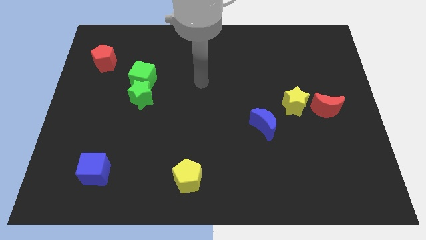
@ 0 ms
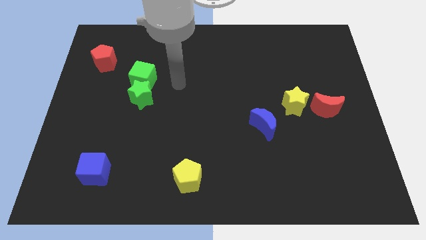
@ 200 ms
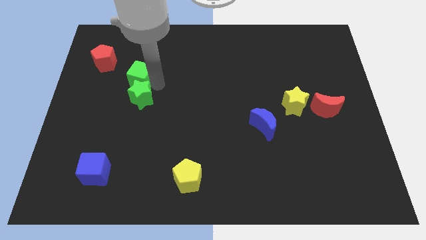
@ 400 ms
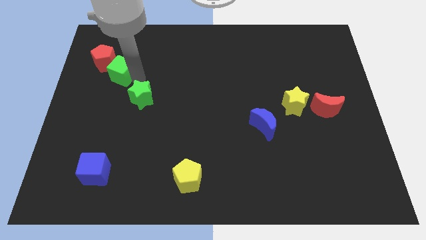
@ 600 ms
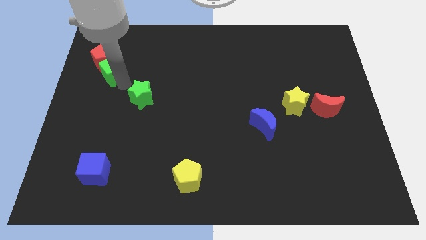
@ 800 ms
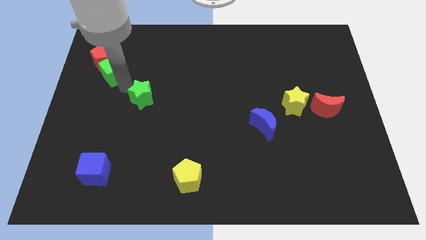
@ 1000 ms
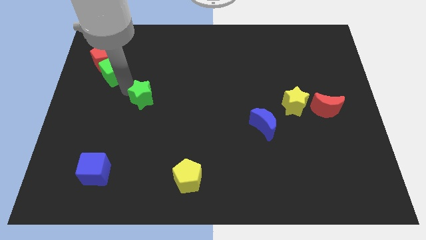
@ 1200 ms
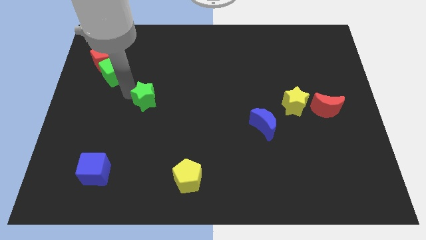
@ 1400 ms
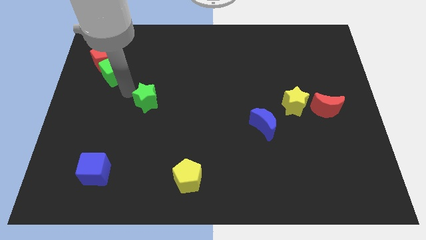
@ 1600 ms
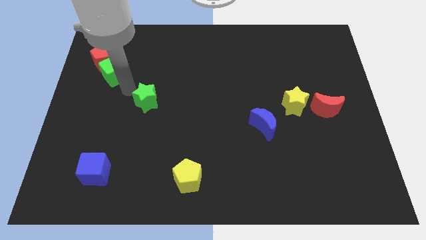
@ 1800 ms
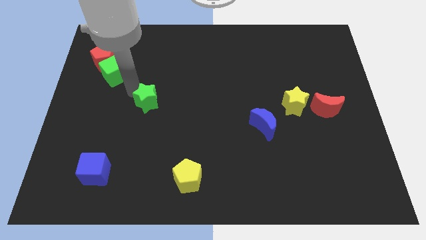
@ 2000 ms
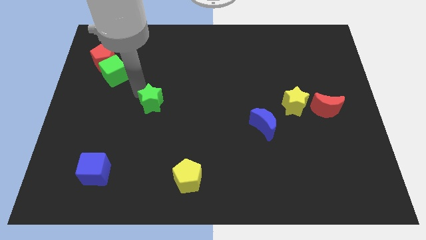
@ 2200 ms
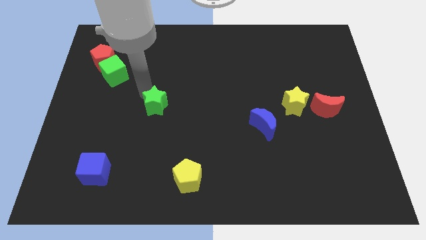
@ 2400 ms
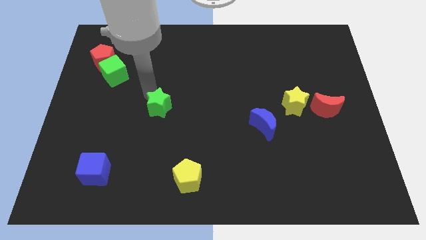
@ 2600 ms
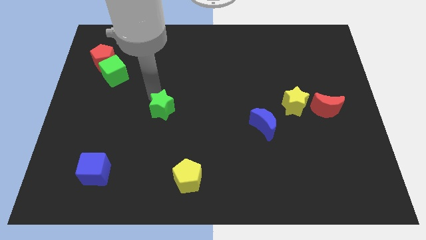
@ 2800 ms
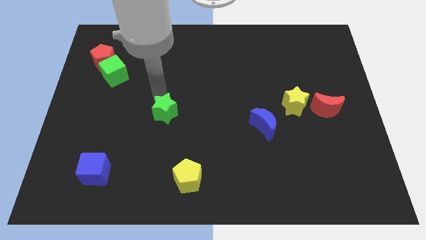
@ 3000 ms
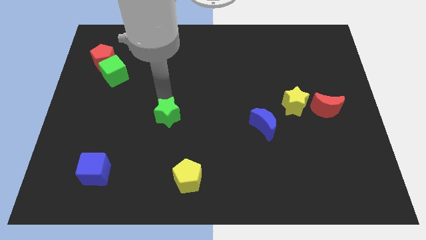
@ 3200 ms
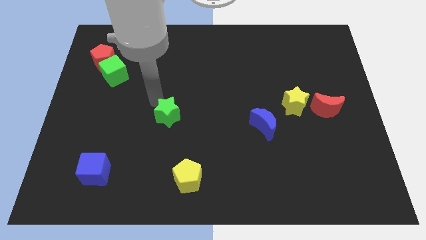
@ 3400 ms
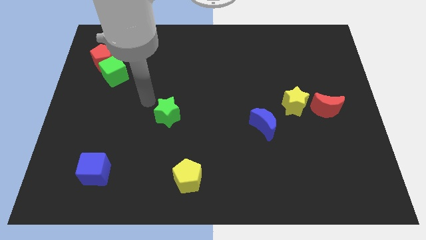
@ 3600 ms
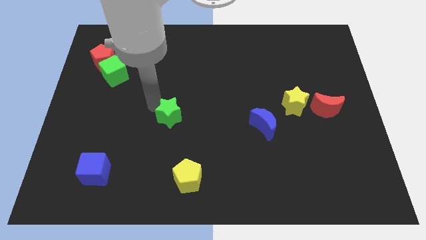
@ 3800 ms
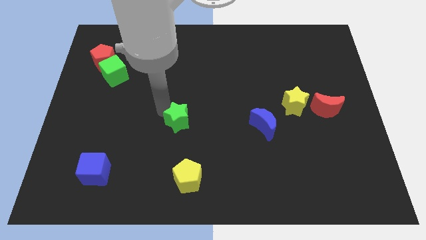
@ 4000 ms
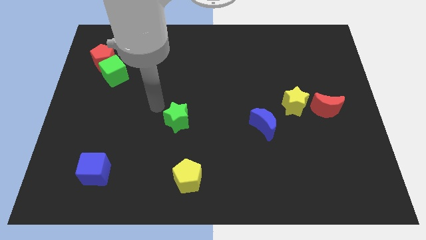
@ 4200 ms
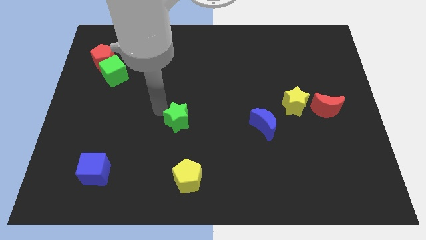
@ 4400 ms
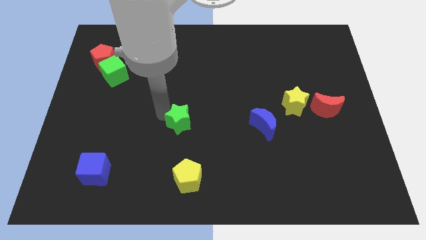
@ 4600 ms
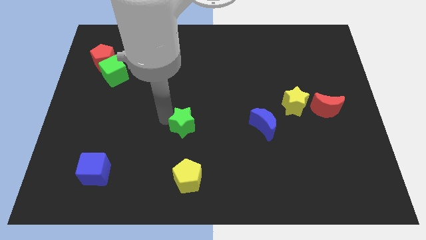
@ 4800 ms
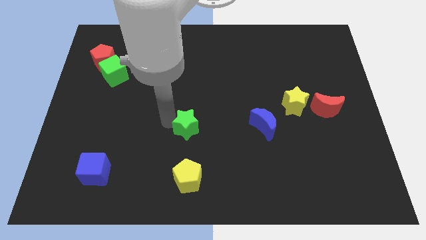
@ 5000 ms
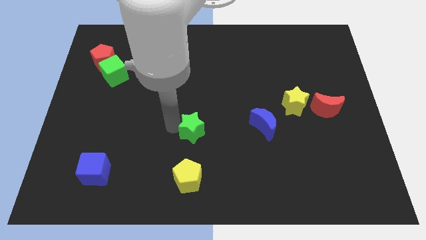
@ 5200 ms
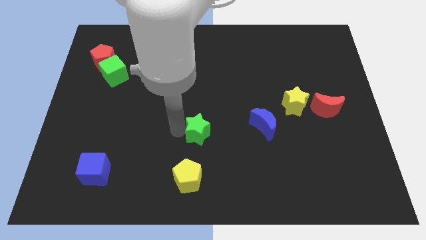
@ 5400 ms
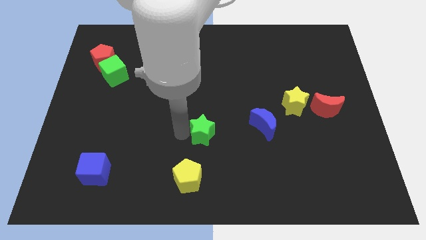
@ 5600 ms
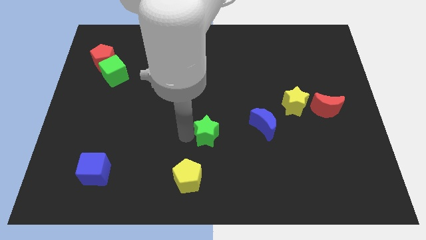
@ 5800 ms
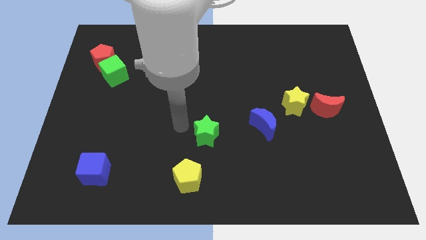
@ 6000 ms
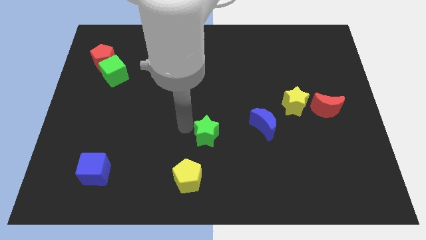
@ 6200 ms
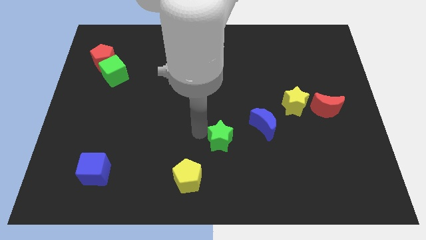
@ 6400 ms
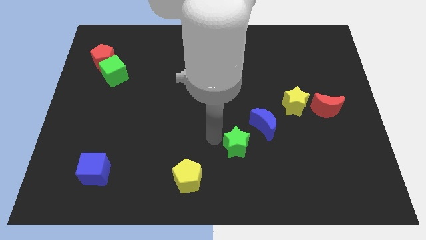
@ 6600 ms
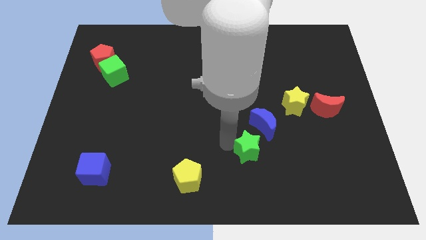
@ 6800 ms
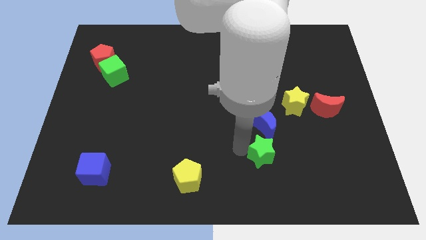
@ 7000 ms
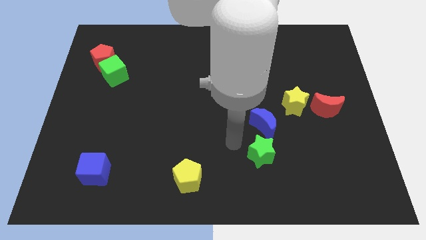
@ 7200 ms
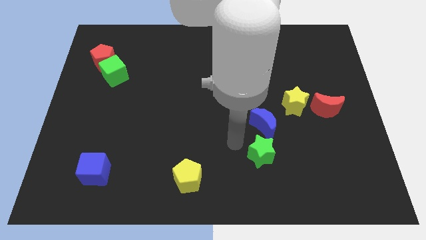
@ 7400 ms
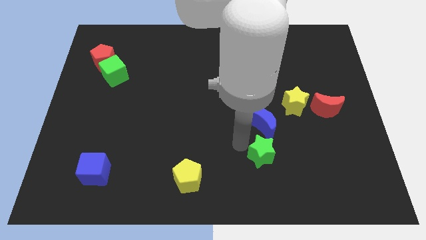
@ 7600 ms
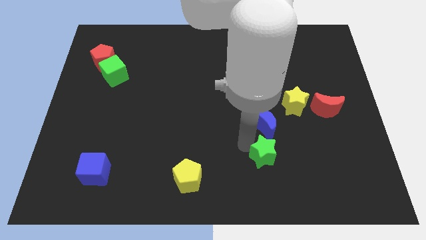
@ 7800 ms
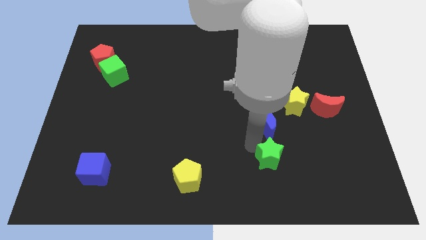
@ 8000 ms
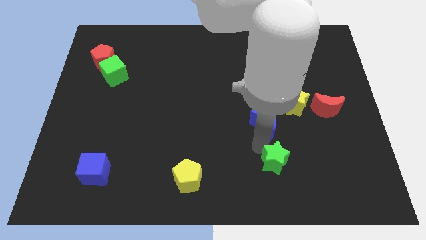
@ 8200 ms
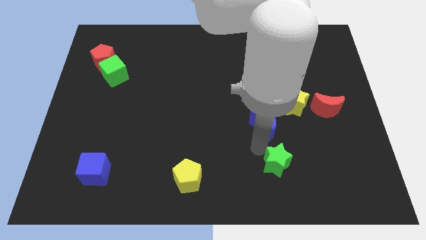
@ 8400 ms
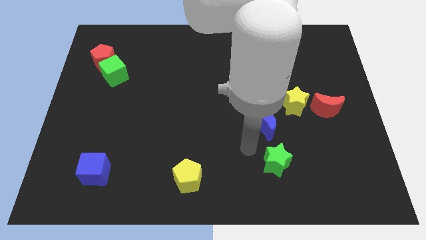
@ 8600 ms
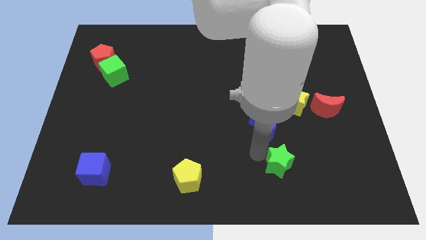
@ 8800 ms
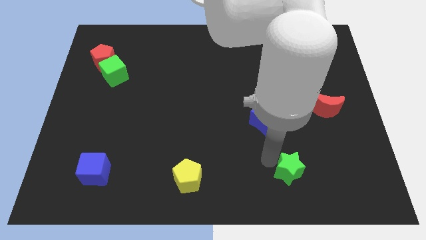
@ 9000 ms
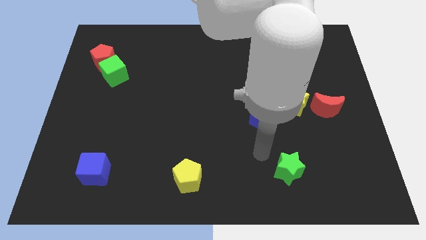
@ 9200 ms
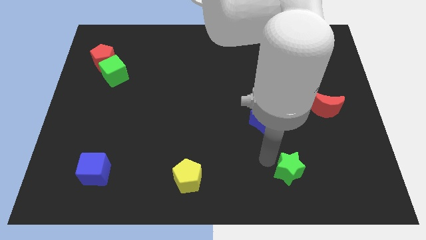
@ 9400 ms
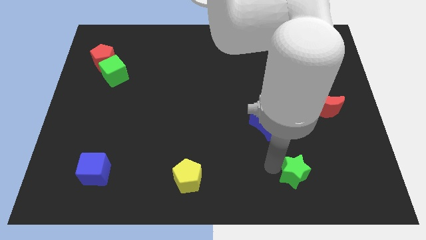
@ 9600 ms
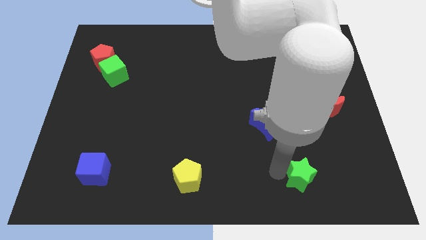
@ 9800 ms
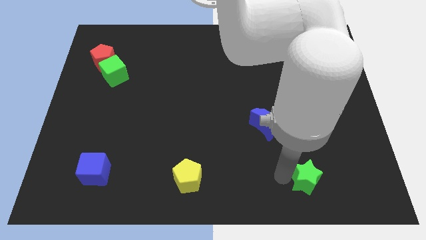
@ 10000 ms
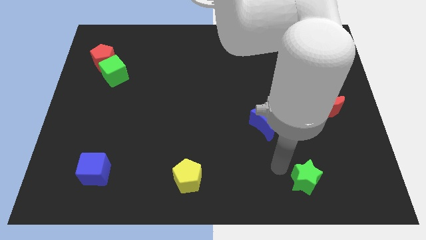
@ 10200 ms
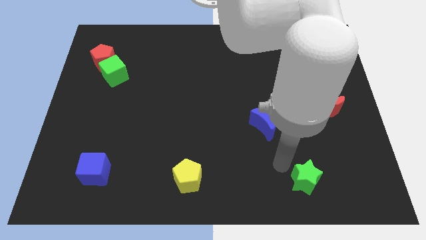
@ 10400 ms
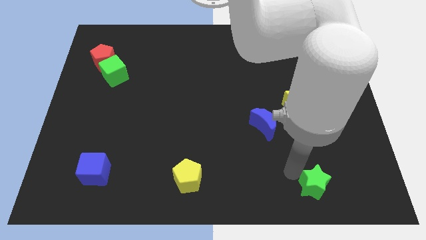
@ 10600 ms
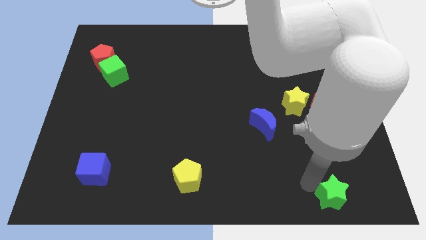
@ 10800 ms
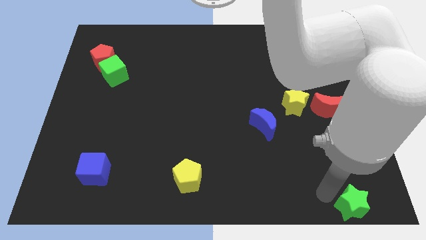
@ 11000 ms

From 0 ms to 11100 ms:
slide the green star to the bottom right of the board

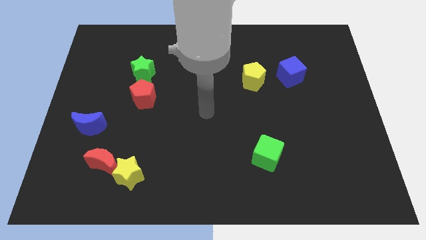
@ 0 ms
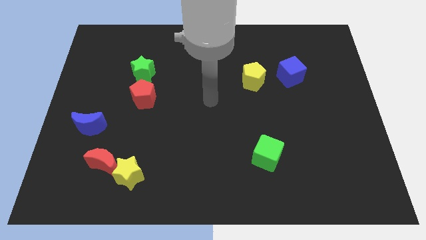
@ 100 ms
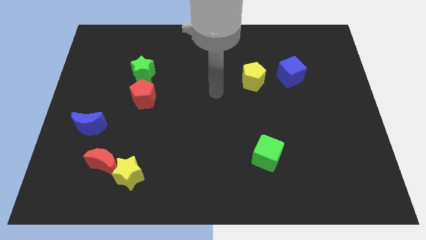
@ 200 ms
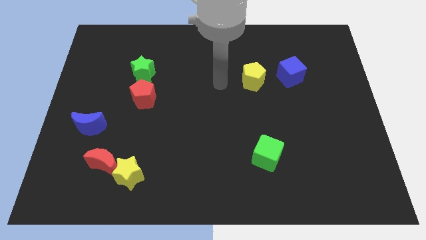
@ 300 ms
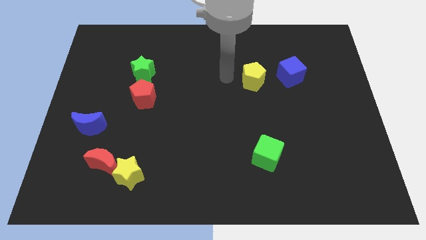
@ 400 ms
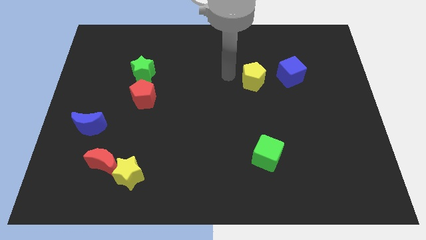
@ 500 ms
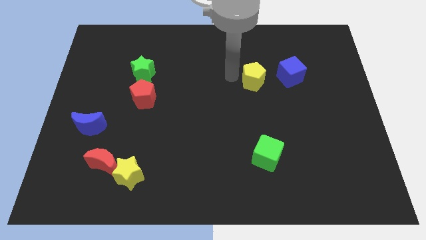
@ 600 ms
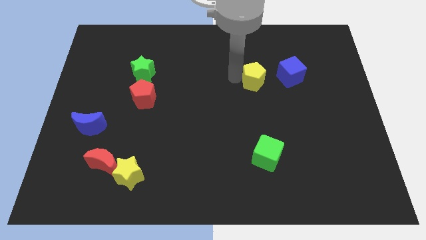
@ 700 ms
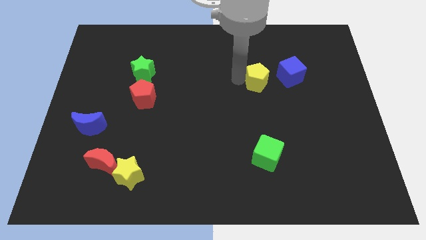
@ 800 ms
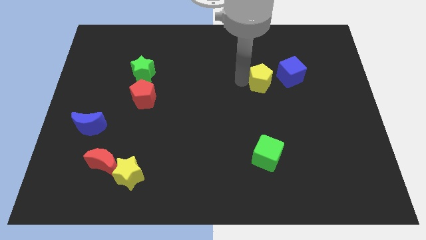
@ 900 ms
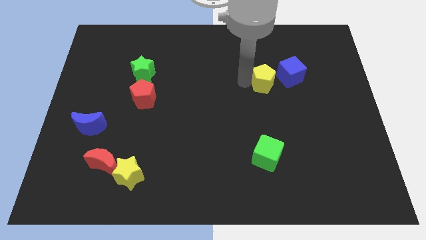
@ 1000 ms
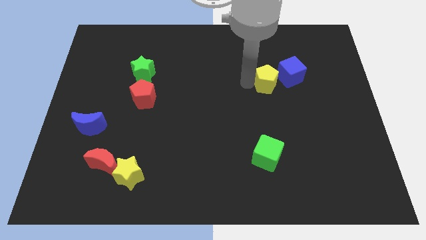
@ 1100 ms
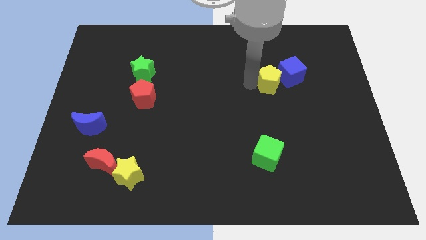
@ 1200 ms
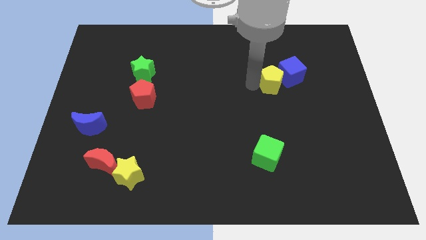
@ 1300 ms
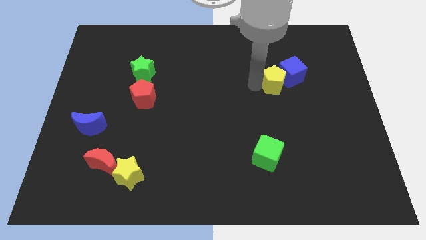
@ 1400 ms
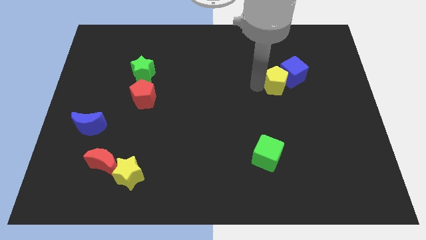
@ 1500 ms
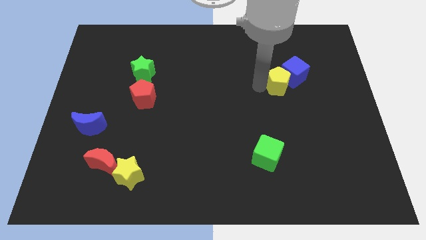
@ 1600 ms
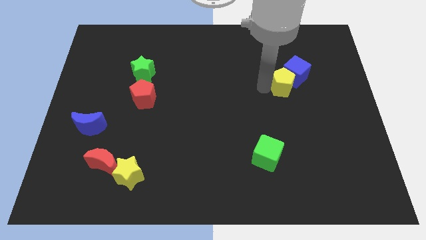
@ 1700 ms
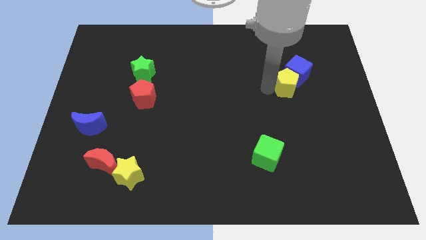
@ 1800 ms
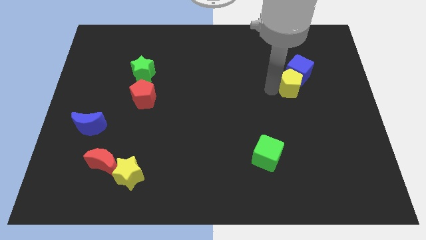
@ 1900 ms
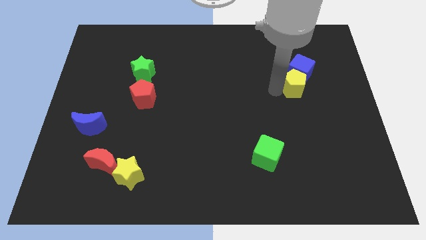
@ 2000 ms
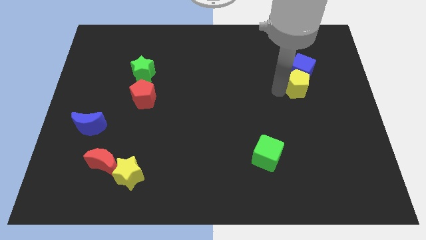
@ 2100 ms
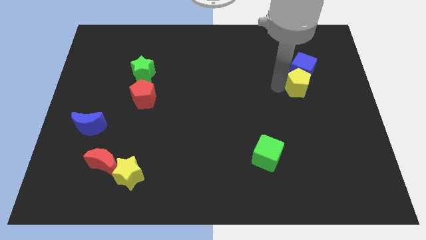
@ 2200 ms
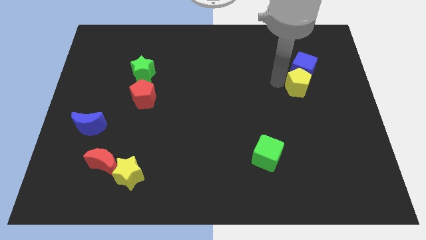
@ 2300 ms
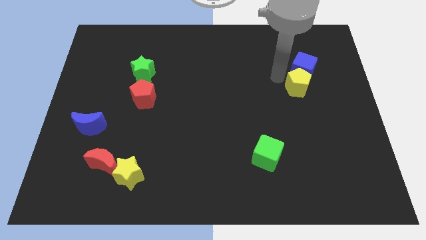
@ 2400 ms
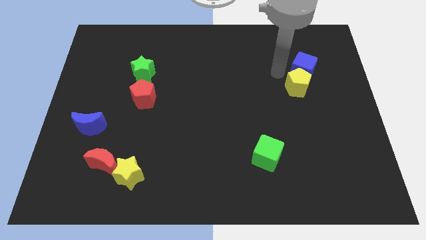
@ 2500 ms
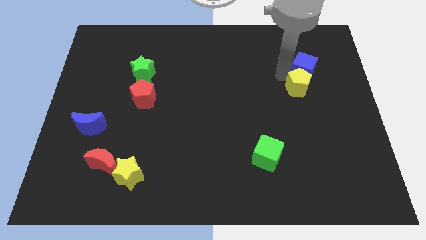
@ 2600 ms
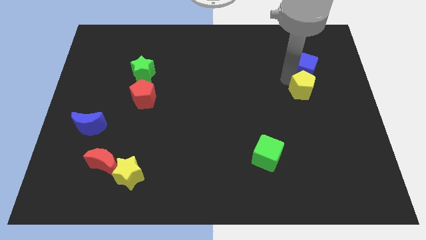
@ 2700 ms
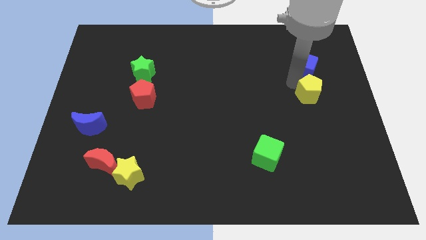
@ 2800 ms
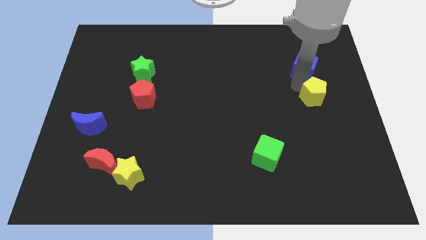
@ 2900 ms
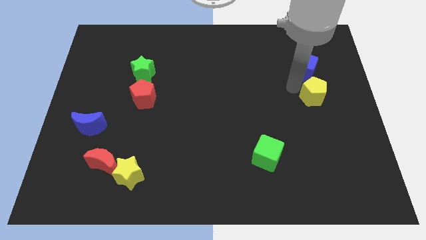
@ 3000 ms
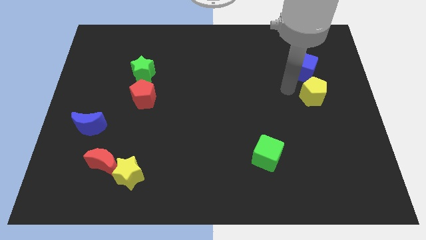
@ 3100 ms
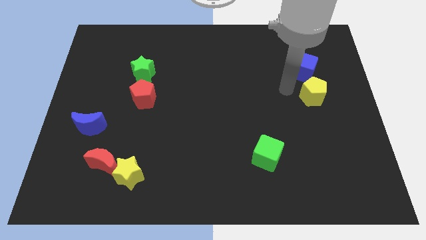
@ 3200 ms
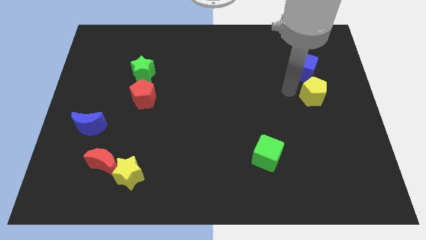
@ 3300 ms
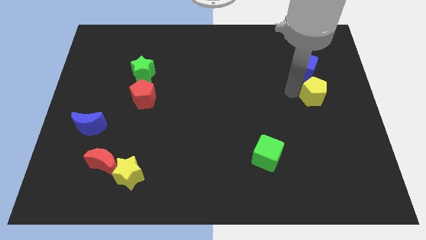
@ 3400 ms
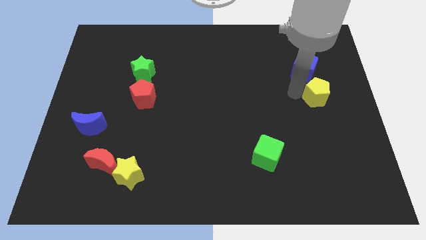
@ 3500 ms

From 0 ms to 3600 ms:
push the yellow pentagon to the right side
